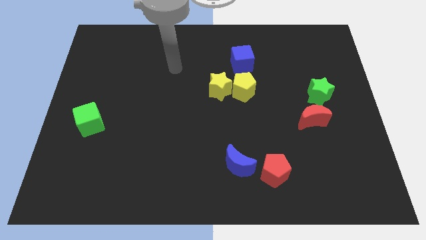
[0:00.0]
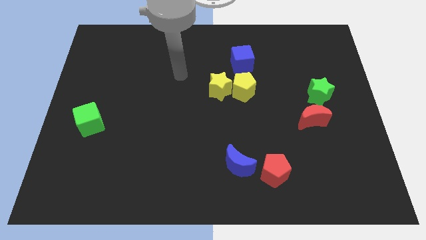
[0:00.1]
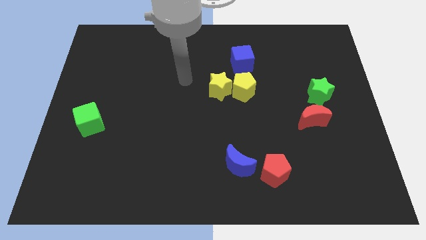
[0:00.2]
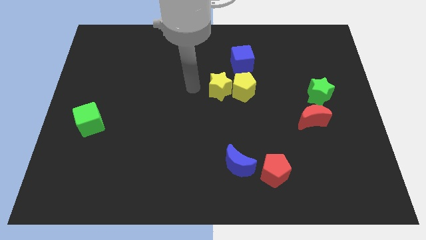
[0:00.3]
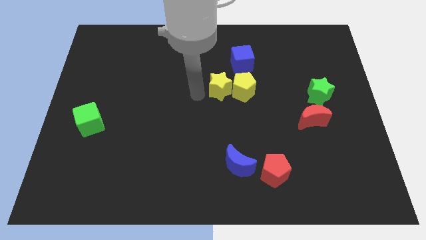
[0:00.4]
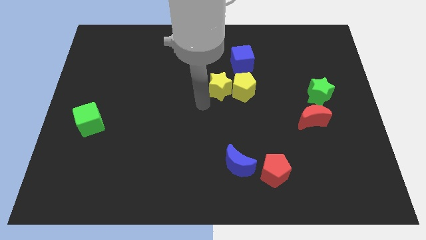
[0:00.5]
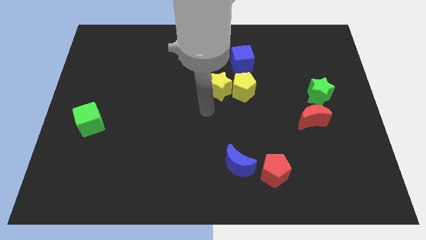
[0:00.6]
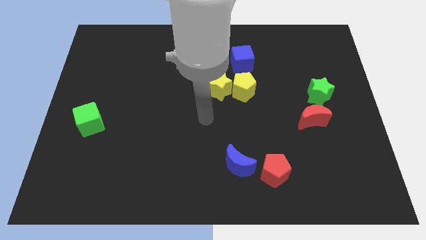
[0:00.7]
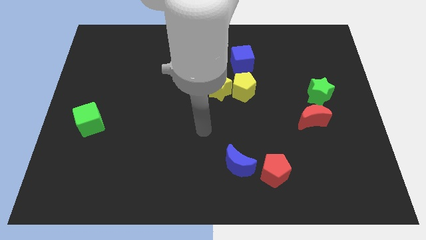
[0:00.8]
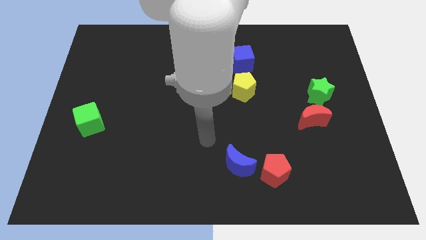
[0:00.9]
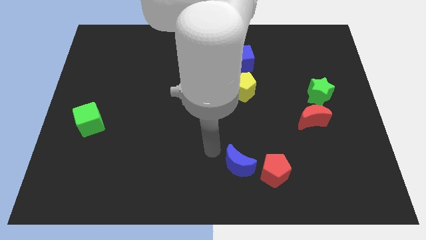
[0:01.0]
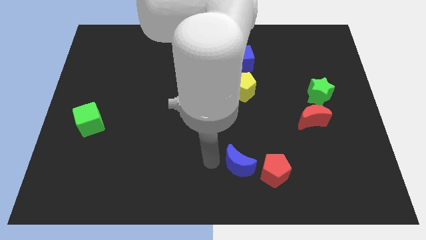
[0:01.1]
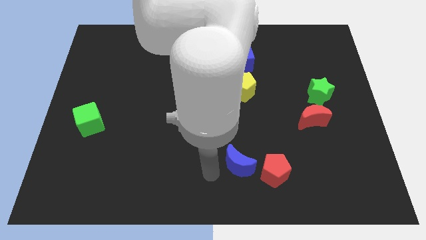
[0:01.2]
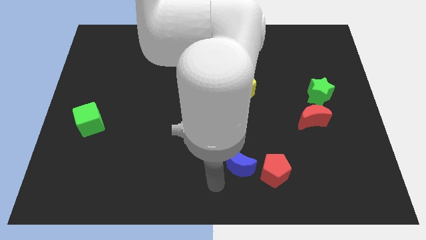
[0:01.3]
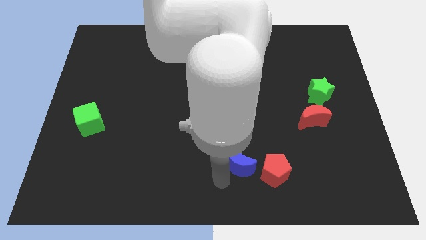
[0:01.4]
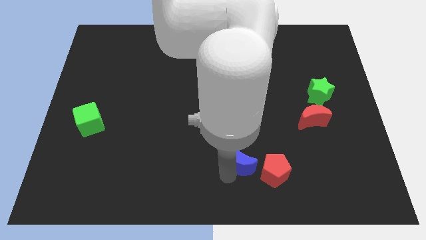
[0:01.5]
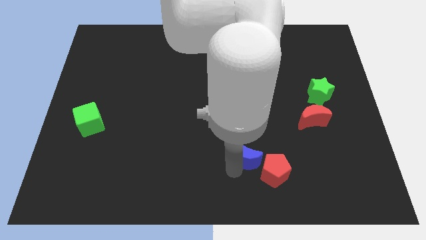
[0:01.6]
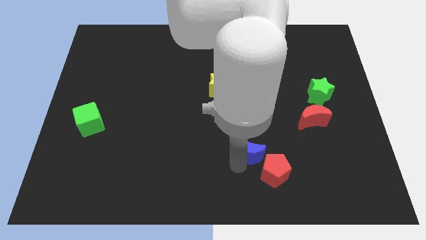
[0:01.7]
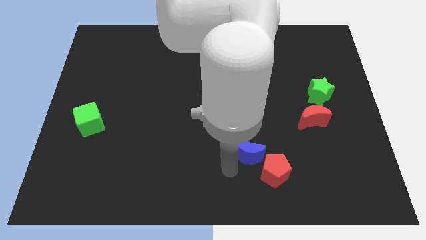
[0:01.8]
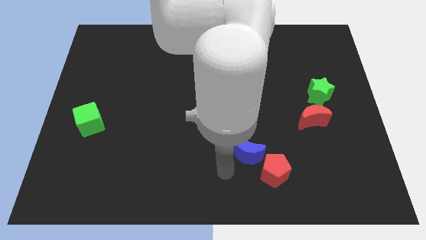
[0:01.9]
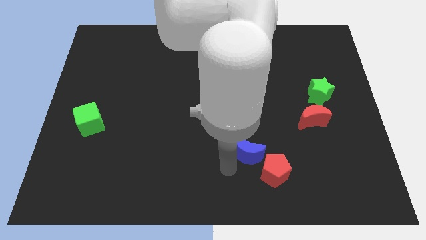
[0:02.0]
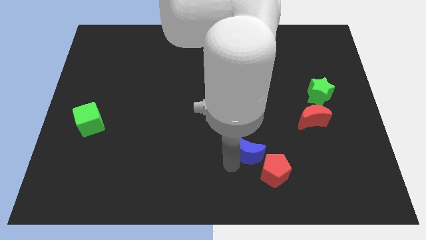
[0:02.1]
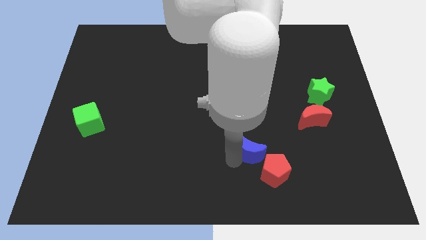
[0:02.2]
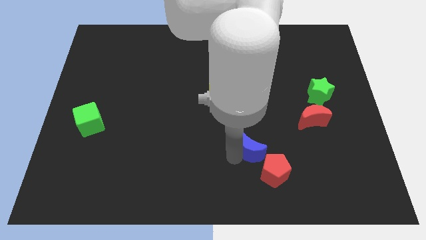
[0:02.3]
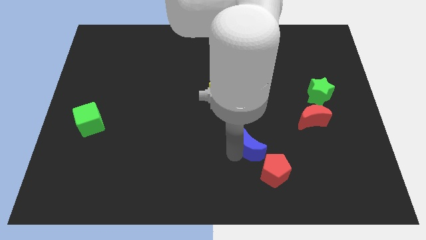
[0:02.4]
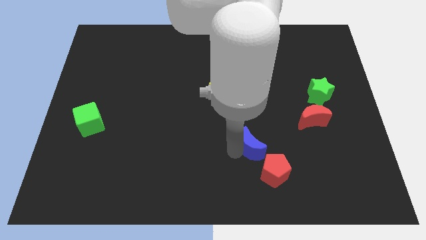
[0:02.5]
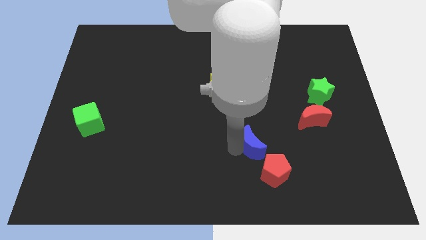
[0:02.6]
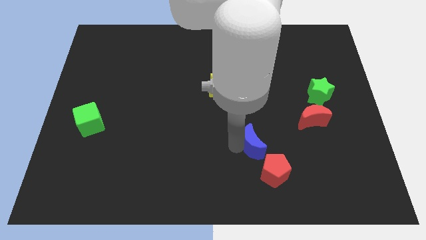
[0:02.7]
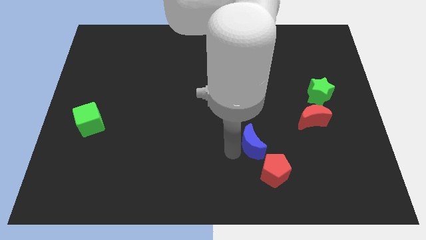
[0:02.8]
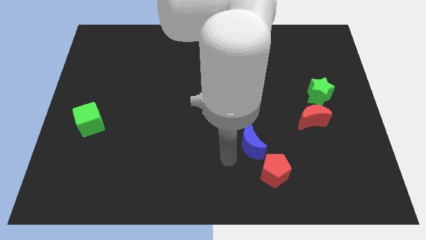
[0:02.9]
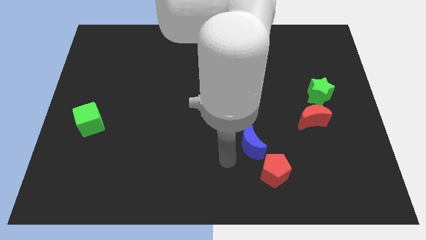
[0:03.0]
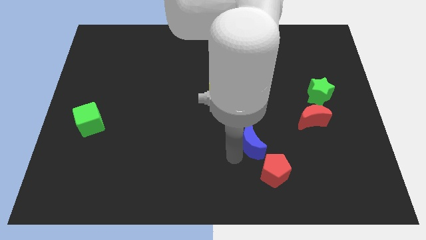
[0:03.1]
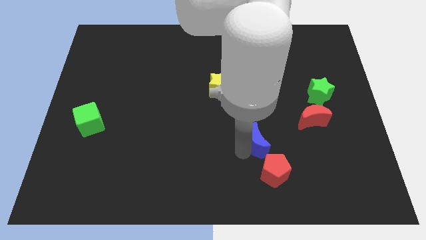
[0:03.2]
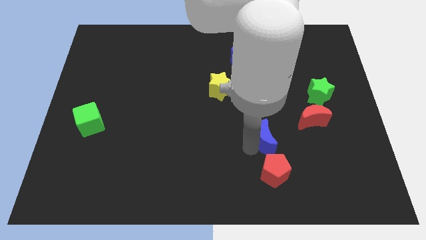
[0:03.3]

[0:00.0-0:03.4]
push the blue moon up and to the right diagonally slightly

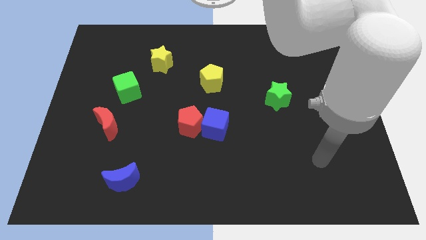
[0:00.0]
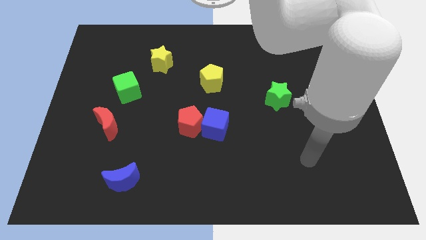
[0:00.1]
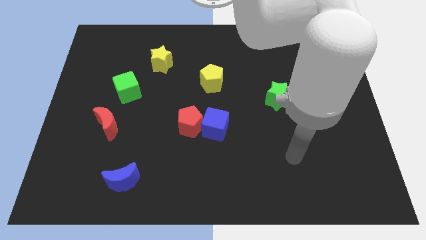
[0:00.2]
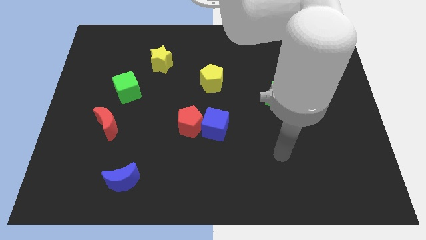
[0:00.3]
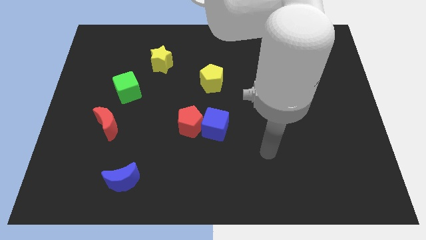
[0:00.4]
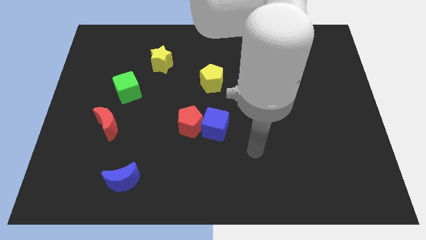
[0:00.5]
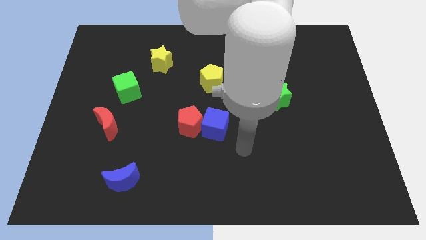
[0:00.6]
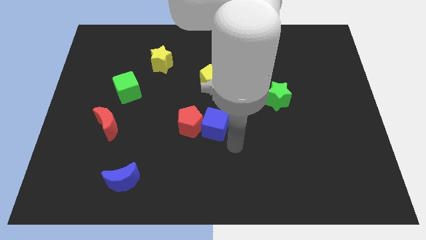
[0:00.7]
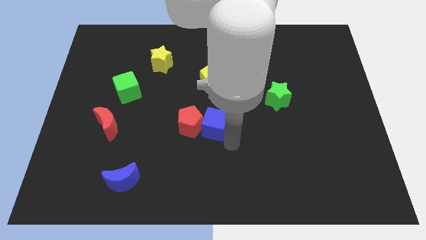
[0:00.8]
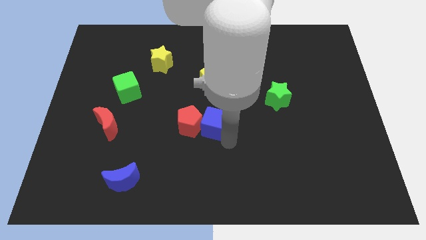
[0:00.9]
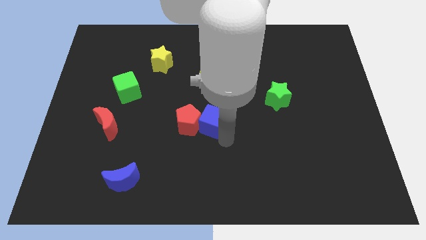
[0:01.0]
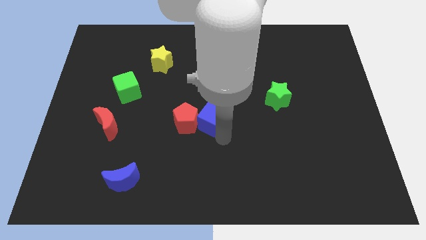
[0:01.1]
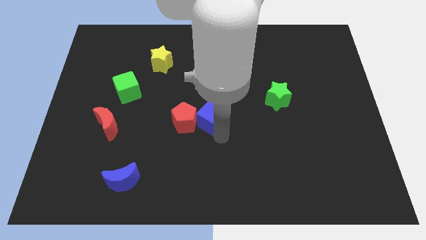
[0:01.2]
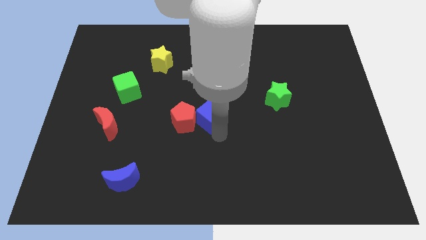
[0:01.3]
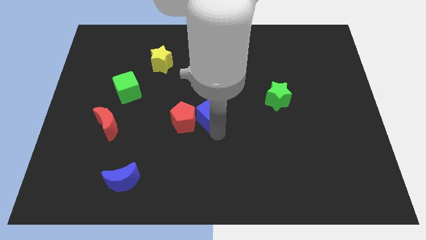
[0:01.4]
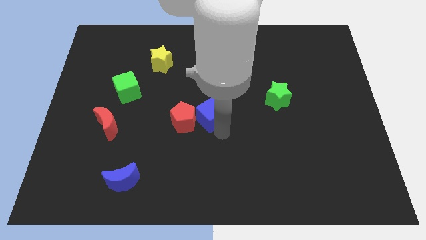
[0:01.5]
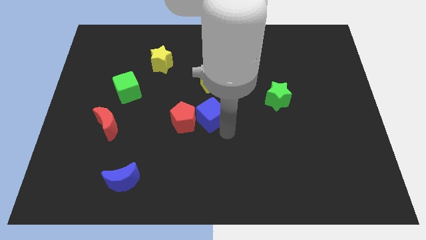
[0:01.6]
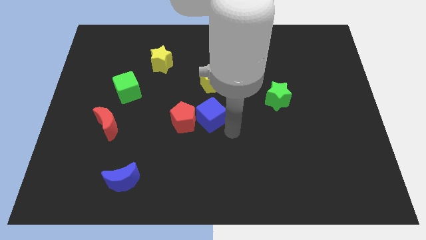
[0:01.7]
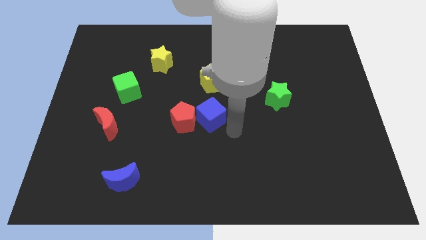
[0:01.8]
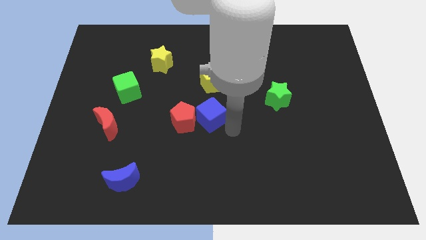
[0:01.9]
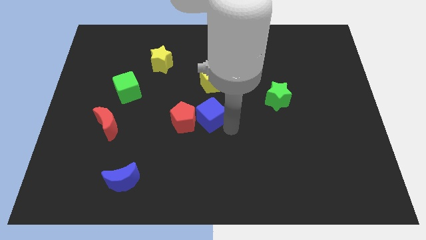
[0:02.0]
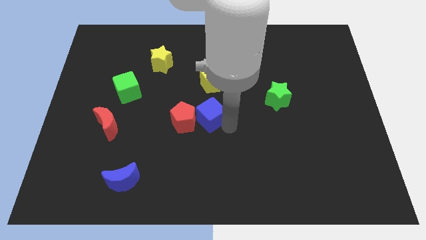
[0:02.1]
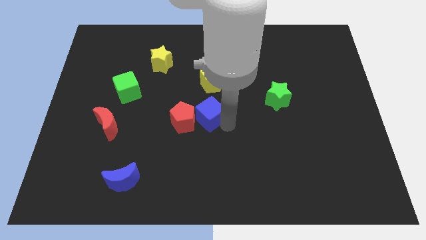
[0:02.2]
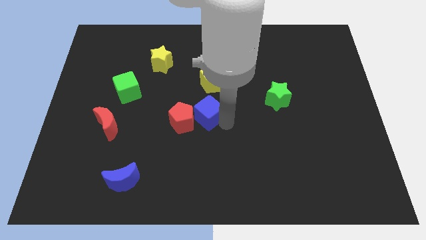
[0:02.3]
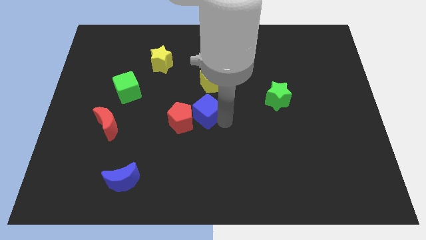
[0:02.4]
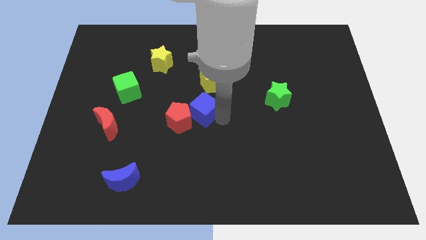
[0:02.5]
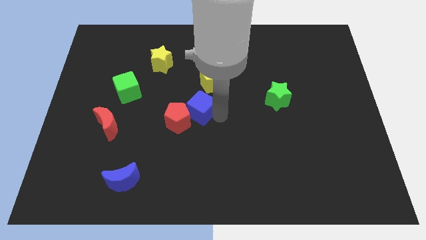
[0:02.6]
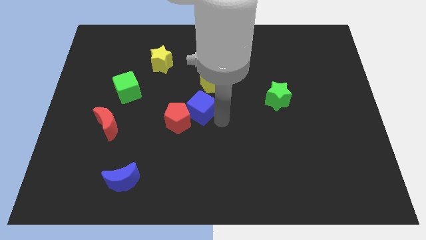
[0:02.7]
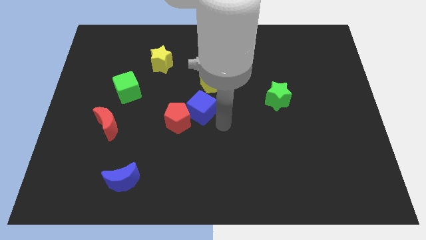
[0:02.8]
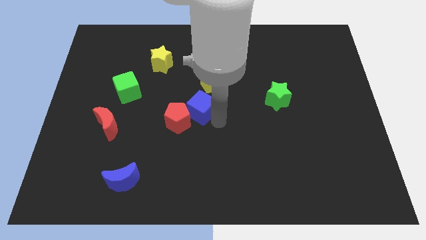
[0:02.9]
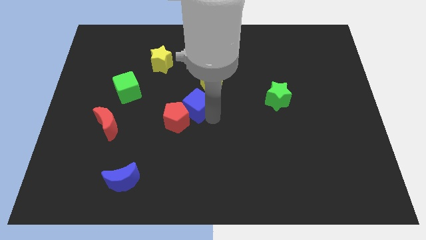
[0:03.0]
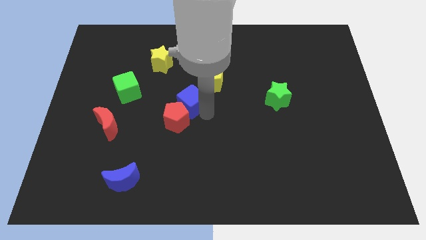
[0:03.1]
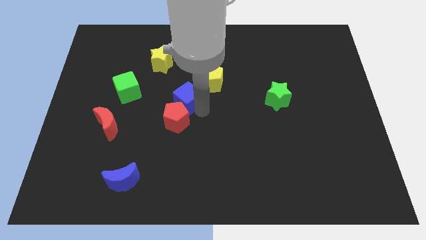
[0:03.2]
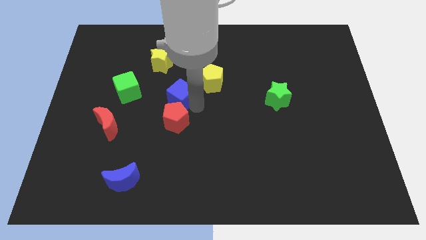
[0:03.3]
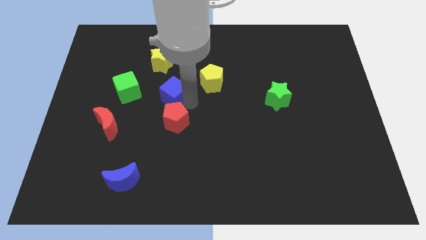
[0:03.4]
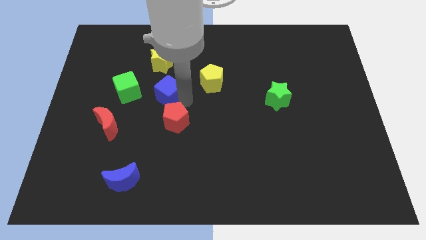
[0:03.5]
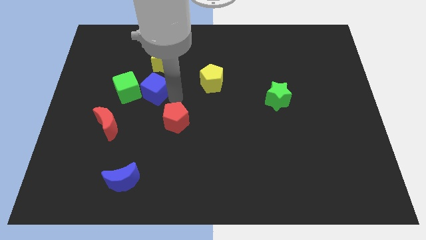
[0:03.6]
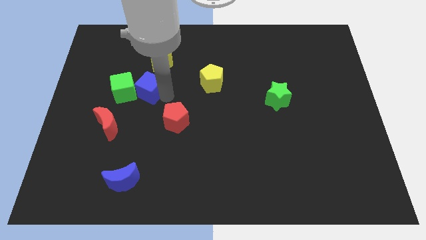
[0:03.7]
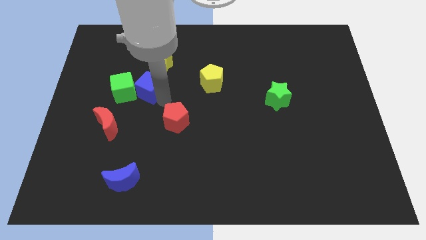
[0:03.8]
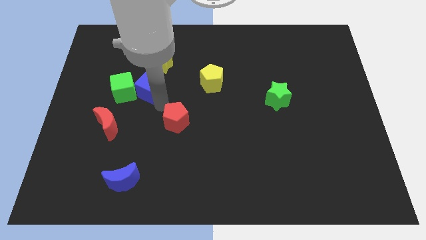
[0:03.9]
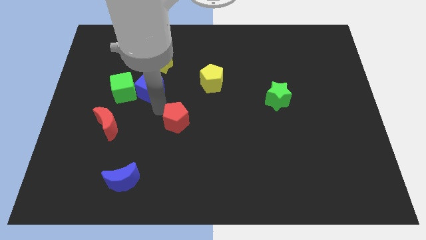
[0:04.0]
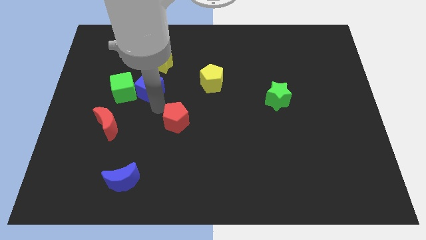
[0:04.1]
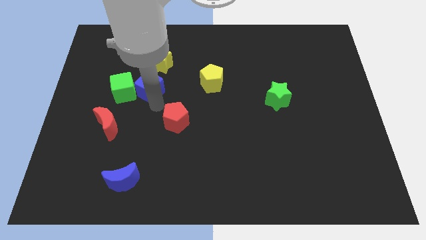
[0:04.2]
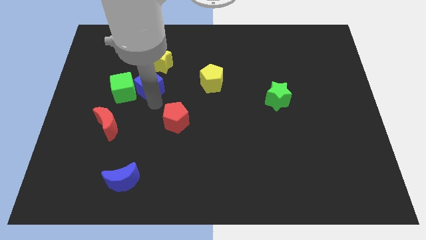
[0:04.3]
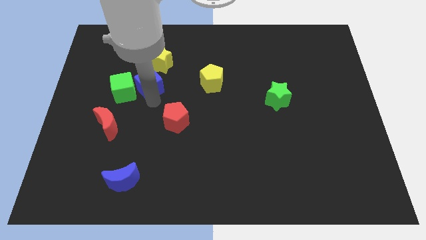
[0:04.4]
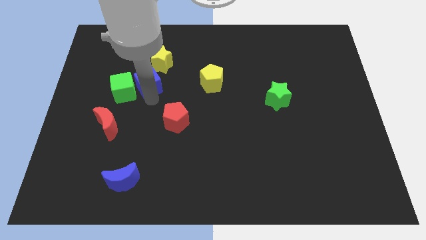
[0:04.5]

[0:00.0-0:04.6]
move the blue cube up and to the left diagonally
